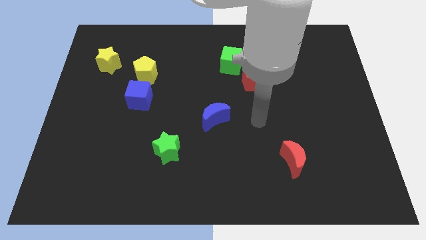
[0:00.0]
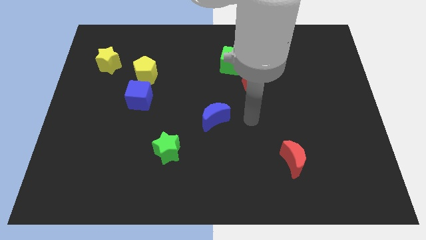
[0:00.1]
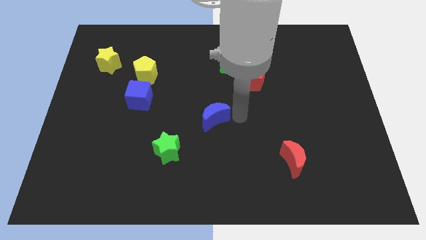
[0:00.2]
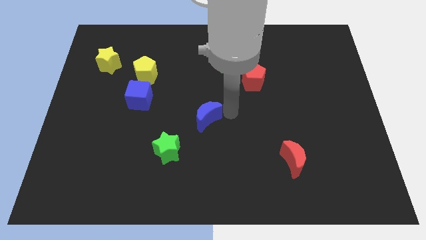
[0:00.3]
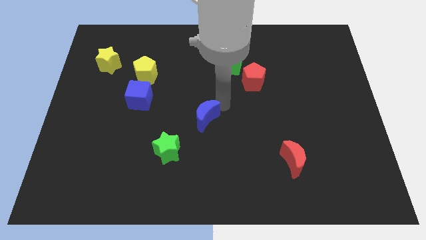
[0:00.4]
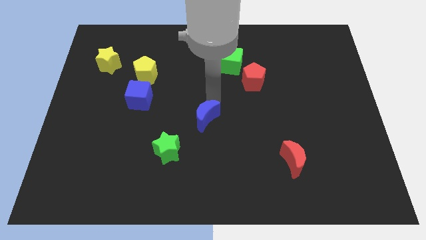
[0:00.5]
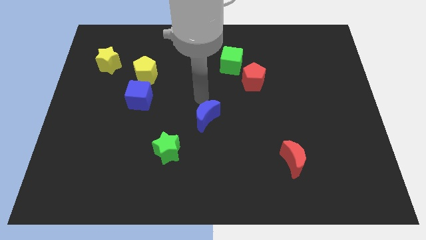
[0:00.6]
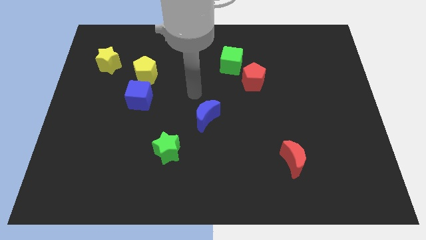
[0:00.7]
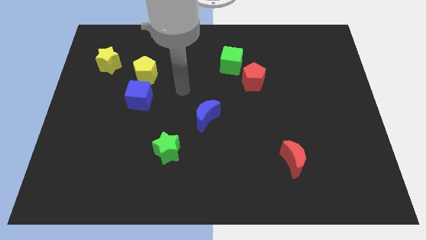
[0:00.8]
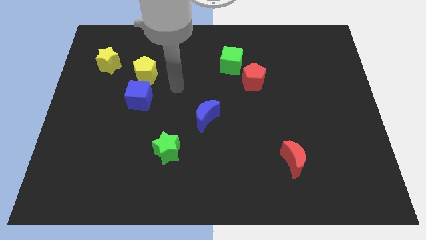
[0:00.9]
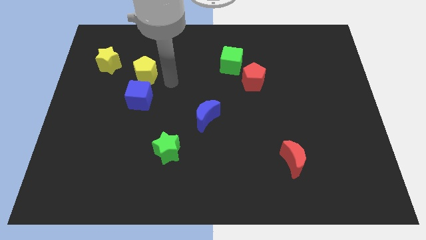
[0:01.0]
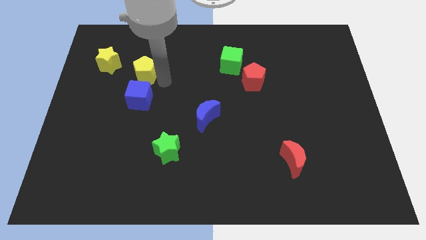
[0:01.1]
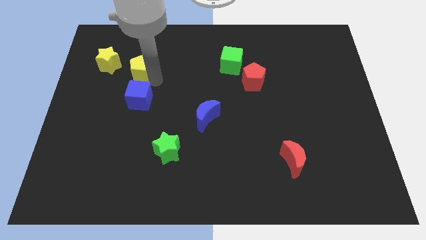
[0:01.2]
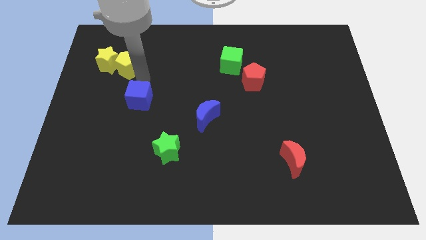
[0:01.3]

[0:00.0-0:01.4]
move the blue cube away from the yellow pentagon

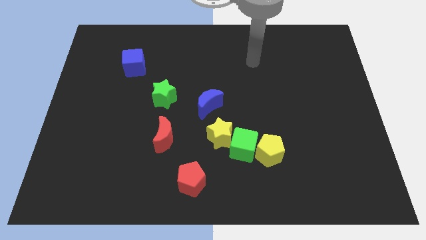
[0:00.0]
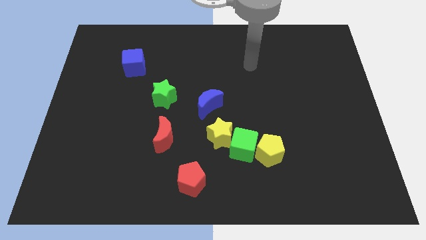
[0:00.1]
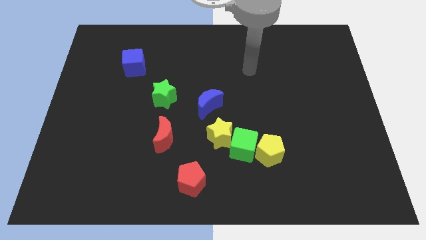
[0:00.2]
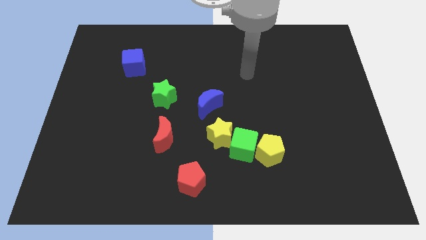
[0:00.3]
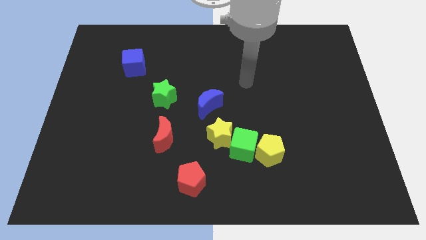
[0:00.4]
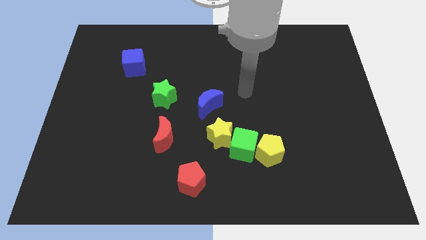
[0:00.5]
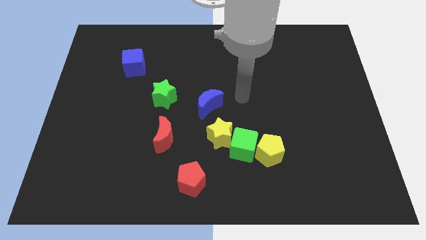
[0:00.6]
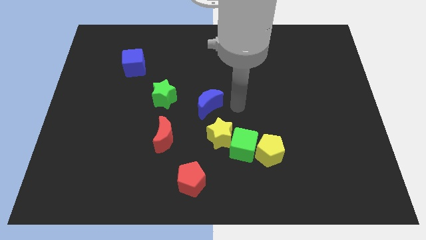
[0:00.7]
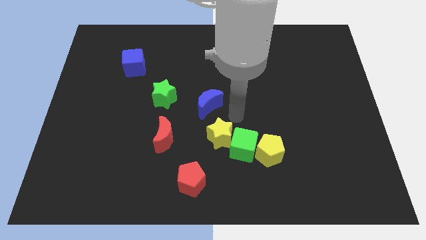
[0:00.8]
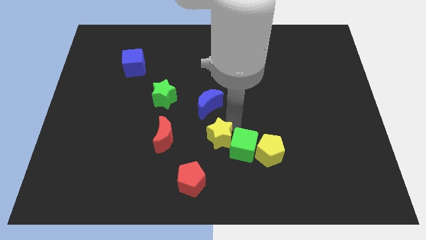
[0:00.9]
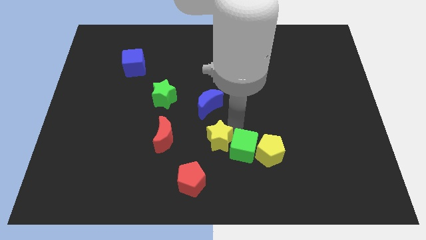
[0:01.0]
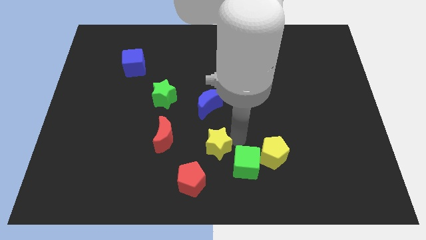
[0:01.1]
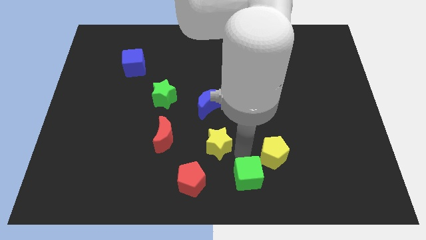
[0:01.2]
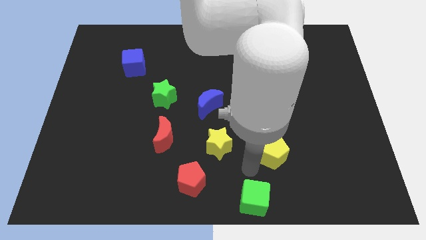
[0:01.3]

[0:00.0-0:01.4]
move the yellow pentagon away from the green cube

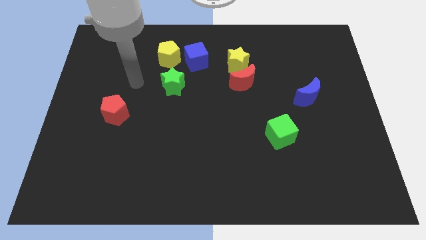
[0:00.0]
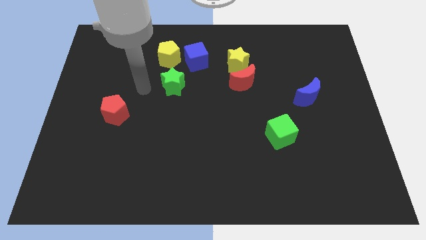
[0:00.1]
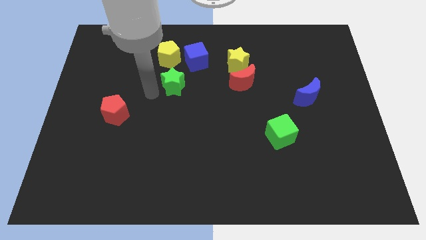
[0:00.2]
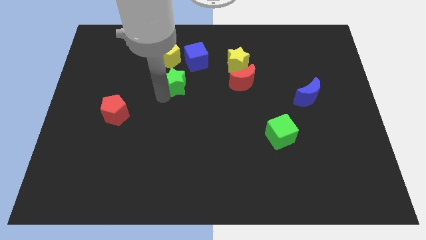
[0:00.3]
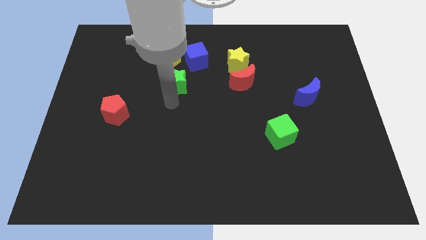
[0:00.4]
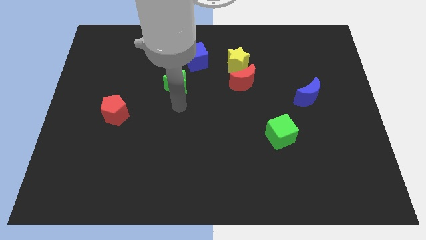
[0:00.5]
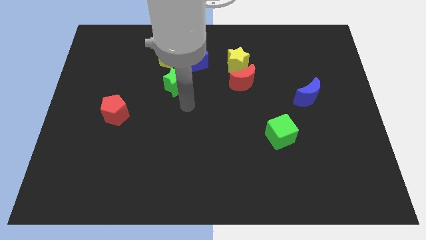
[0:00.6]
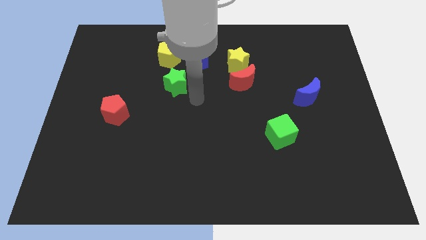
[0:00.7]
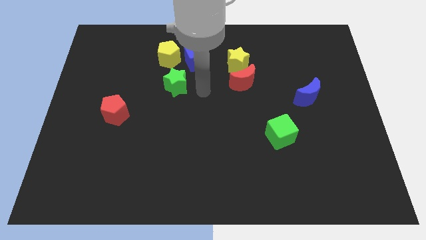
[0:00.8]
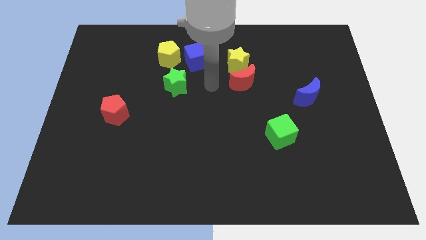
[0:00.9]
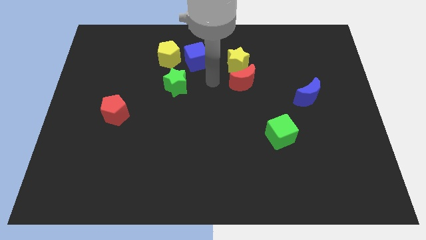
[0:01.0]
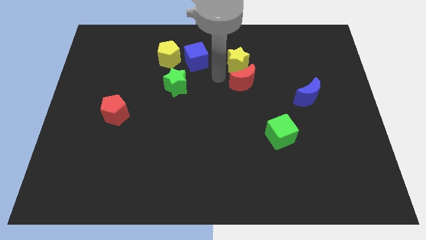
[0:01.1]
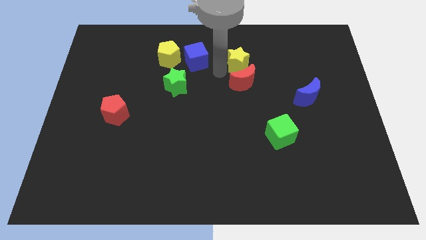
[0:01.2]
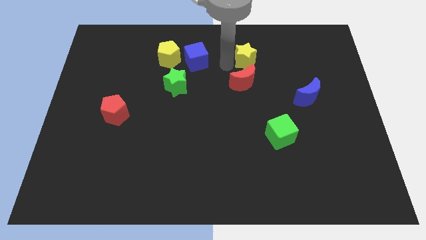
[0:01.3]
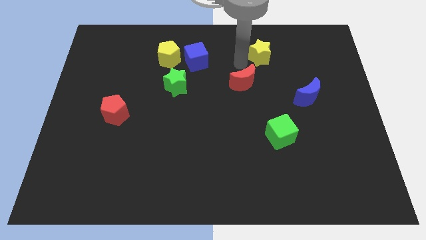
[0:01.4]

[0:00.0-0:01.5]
pull the red moon apart from the yellow star

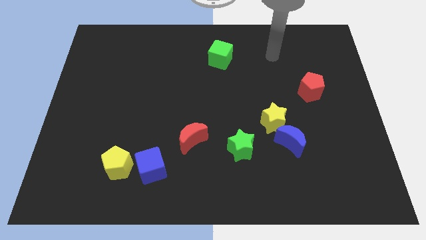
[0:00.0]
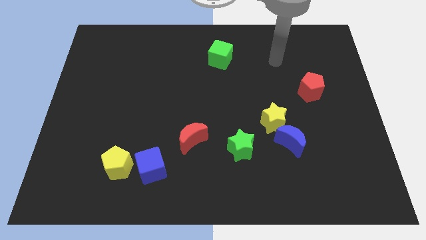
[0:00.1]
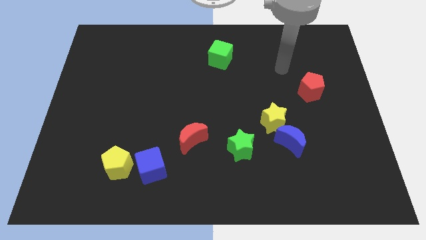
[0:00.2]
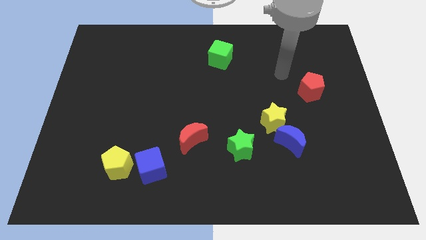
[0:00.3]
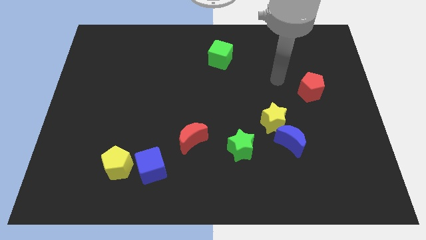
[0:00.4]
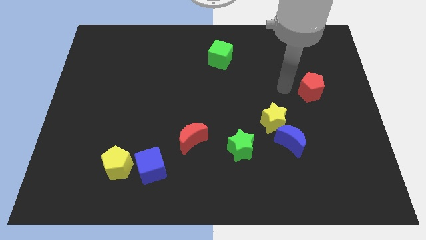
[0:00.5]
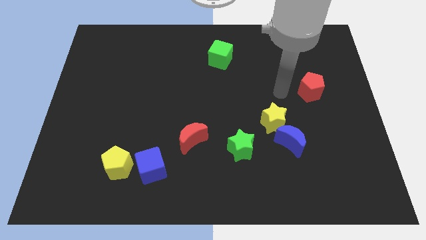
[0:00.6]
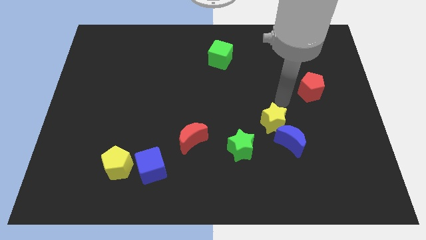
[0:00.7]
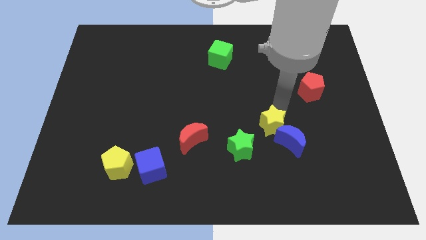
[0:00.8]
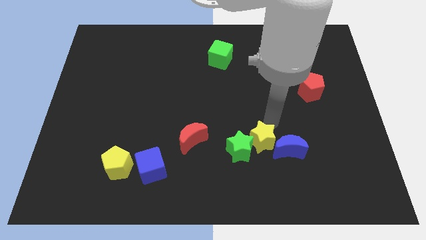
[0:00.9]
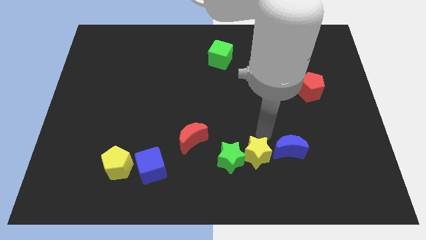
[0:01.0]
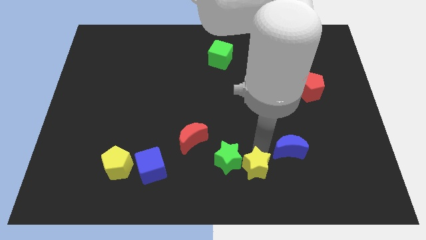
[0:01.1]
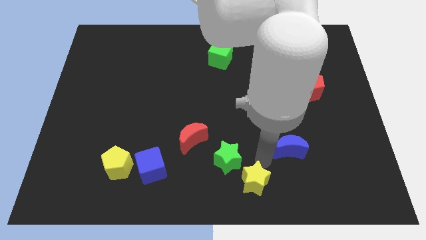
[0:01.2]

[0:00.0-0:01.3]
separate the blue moon from the yellow star

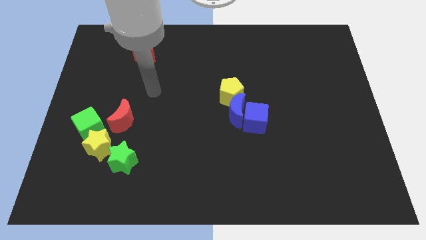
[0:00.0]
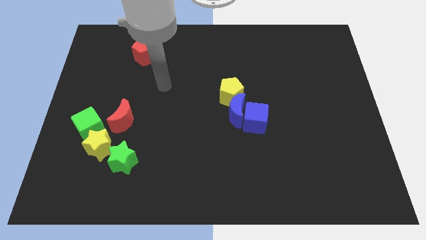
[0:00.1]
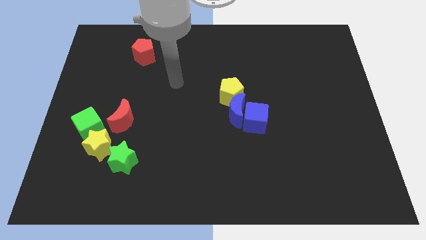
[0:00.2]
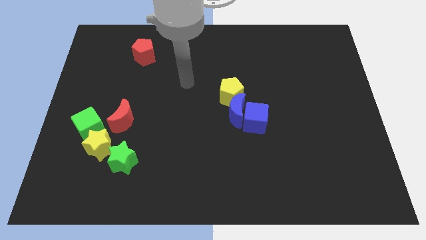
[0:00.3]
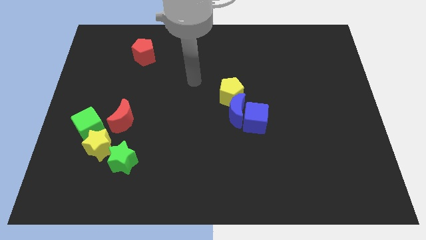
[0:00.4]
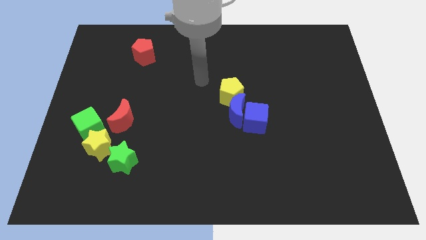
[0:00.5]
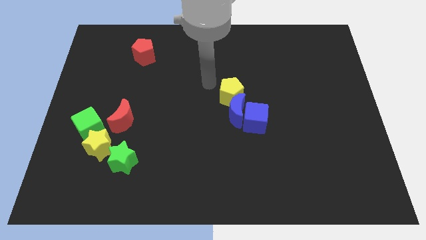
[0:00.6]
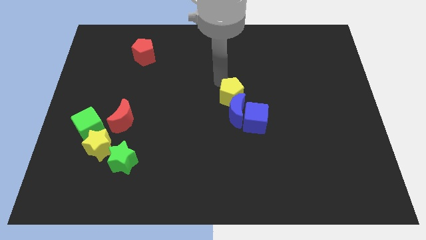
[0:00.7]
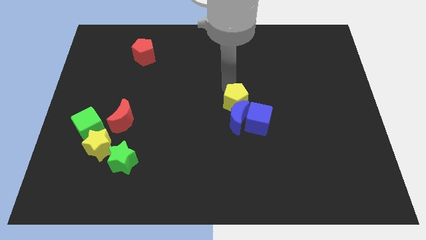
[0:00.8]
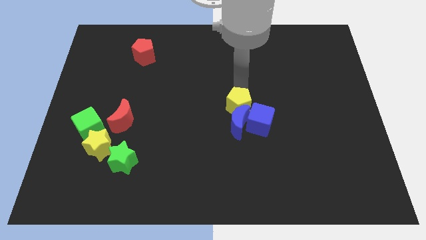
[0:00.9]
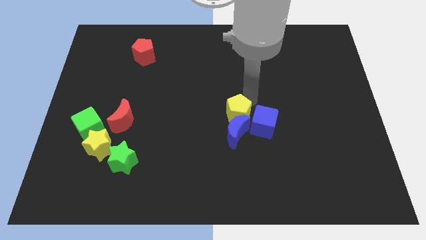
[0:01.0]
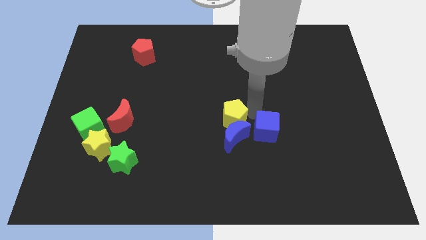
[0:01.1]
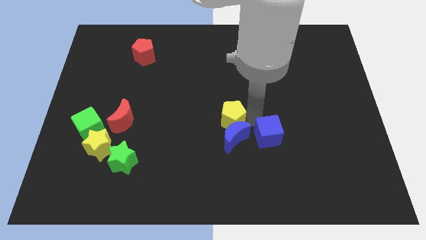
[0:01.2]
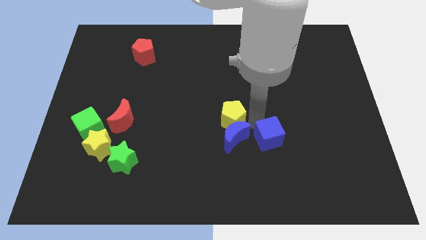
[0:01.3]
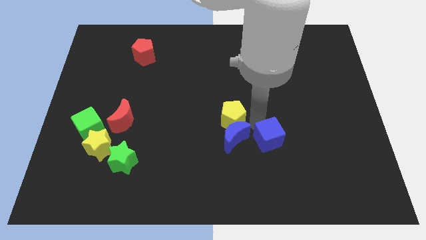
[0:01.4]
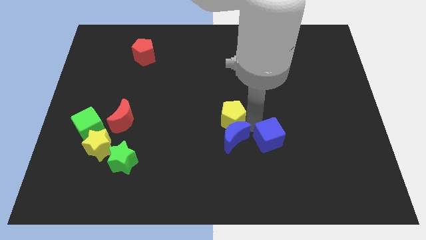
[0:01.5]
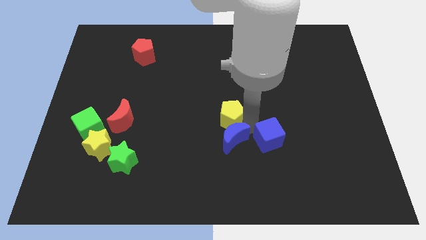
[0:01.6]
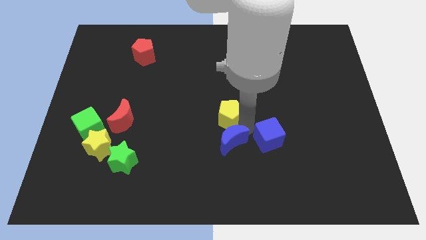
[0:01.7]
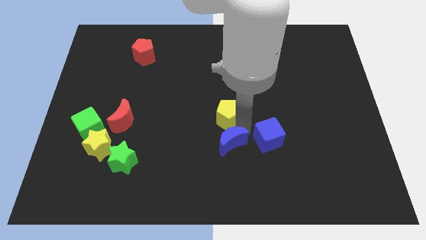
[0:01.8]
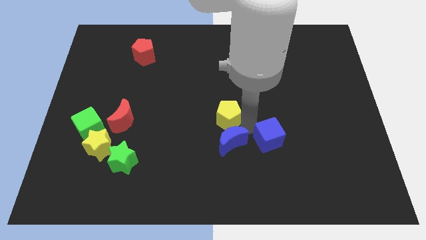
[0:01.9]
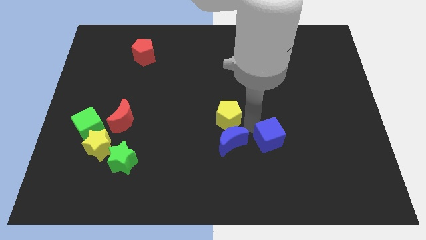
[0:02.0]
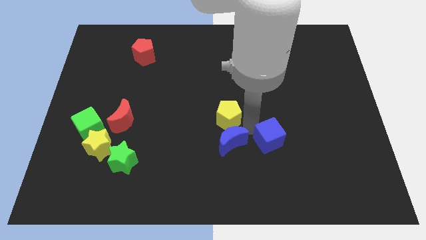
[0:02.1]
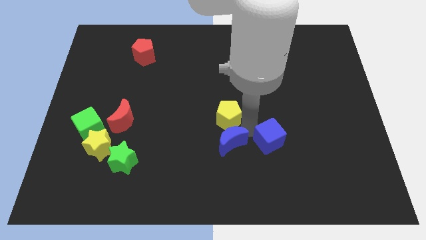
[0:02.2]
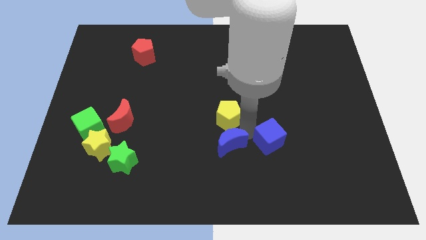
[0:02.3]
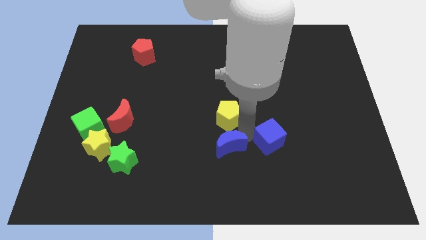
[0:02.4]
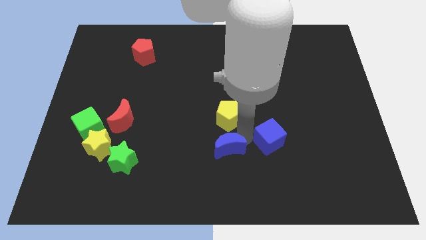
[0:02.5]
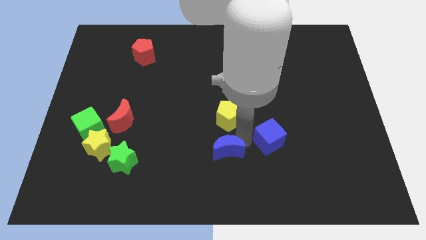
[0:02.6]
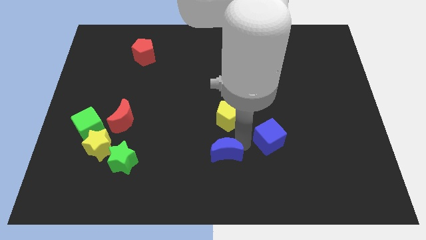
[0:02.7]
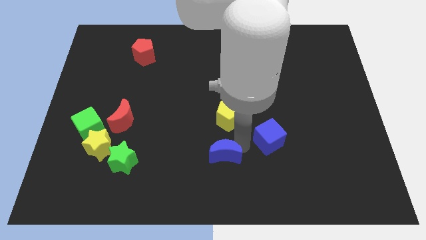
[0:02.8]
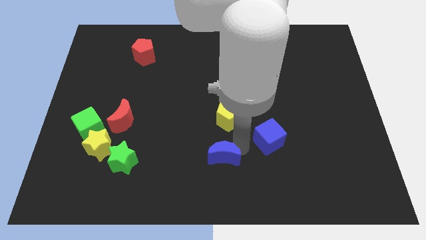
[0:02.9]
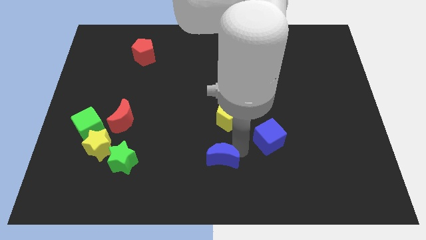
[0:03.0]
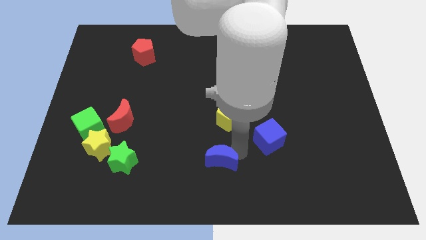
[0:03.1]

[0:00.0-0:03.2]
pull the blue moon apart from the blue cube and yellow pentagon

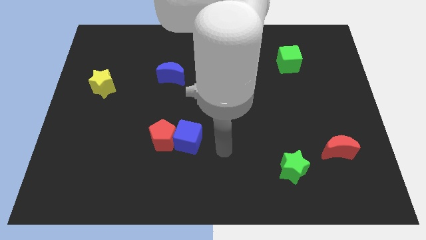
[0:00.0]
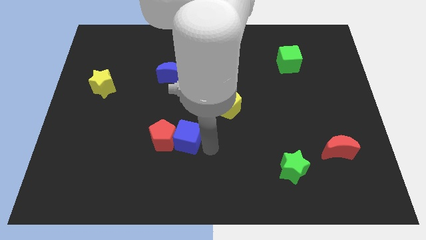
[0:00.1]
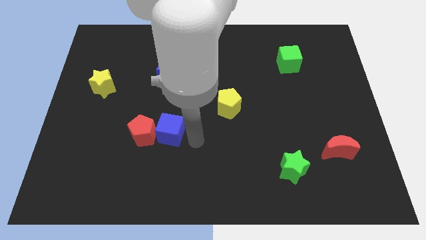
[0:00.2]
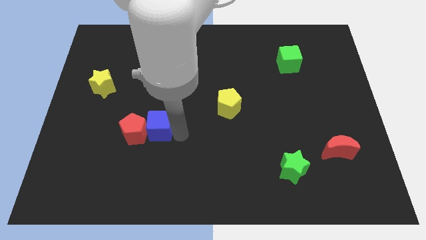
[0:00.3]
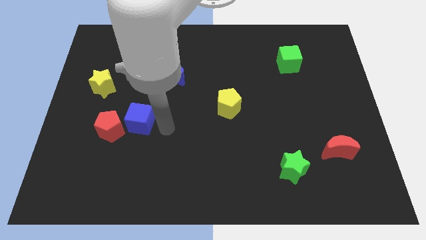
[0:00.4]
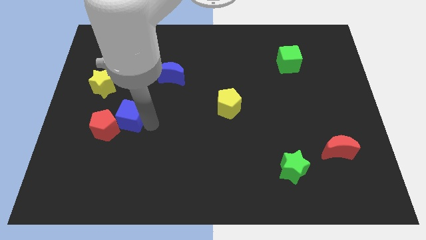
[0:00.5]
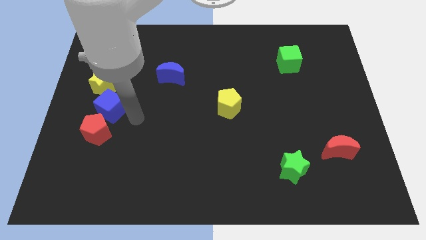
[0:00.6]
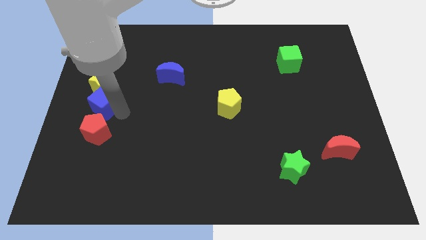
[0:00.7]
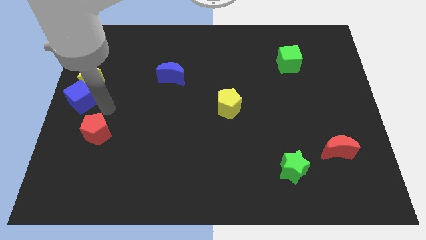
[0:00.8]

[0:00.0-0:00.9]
separate the red pentagon from the blue cube
